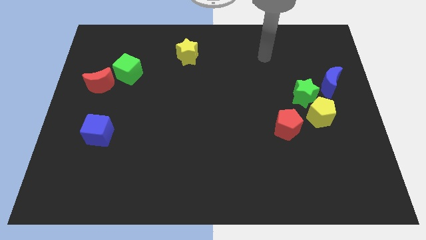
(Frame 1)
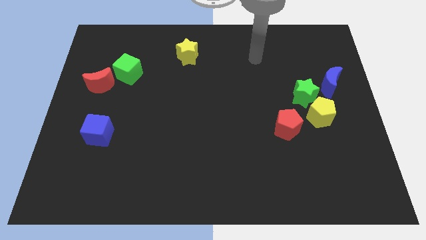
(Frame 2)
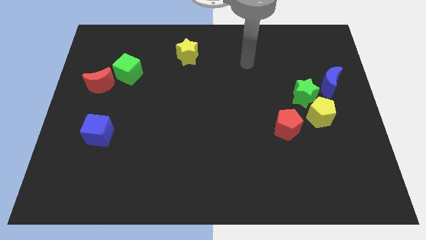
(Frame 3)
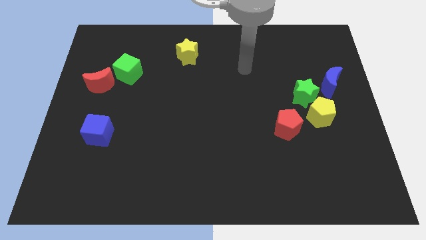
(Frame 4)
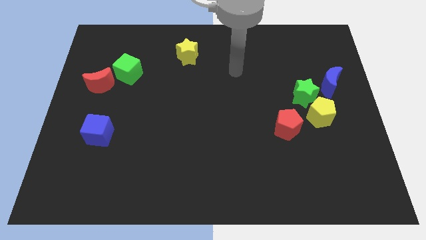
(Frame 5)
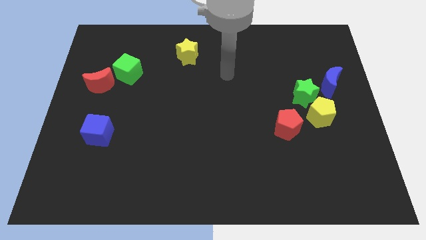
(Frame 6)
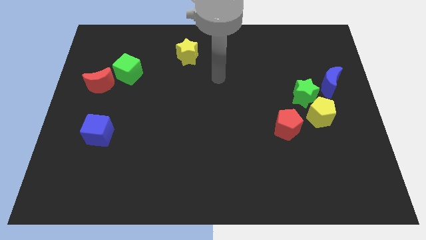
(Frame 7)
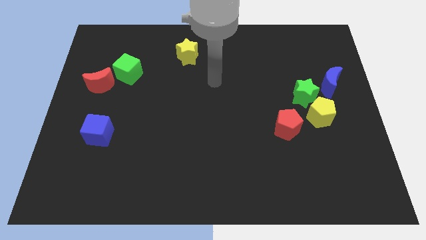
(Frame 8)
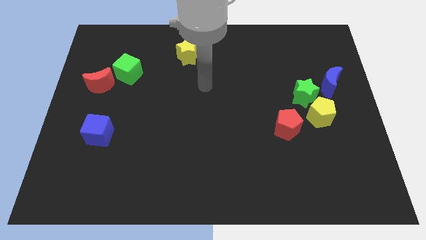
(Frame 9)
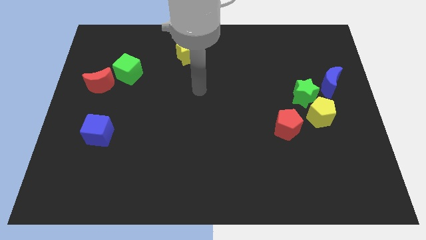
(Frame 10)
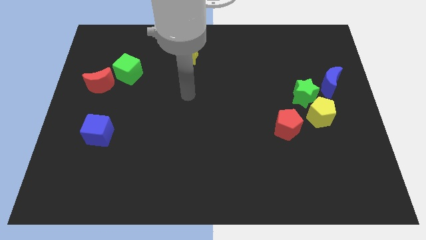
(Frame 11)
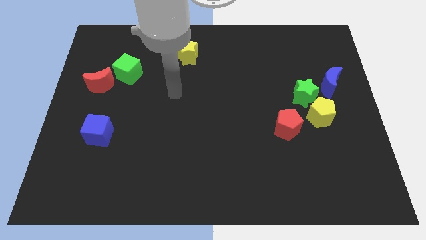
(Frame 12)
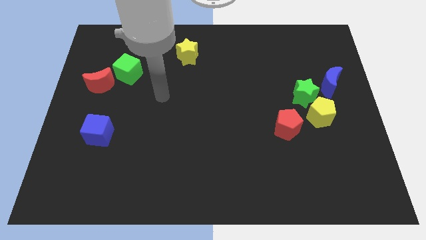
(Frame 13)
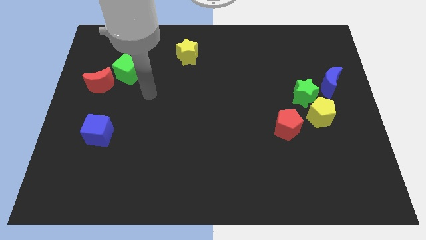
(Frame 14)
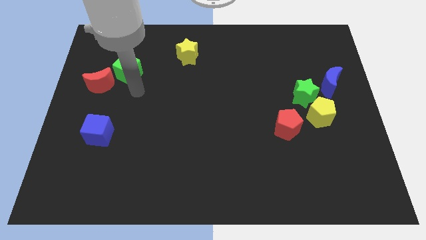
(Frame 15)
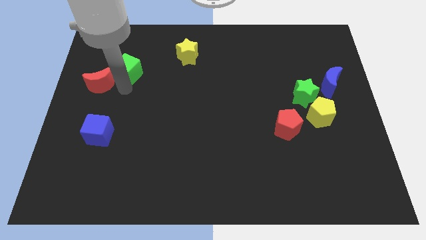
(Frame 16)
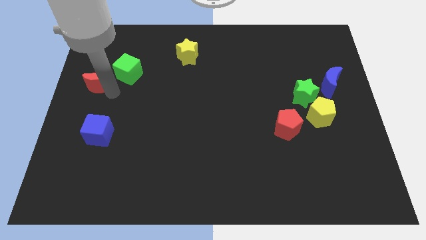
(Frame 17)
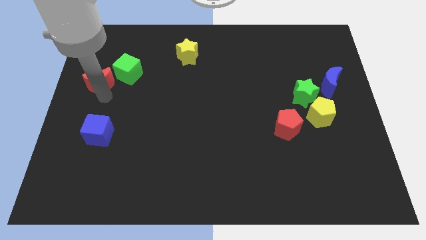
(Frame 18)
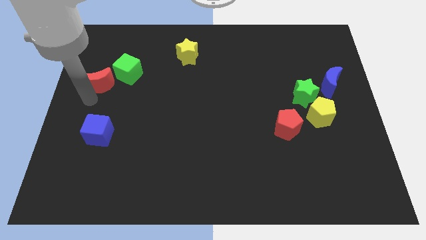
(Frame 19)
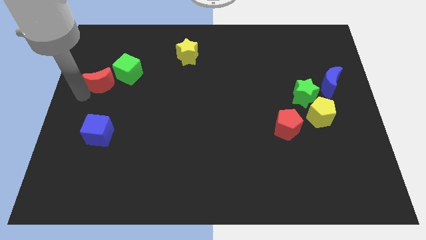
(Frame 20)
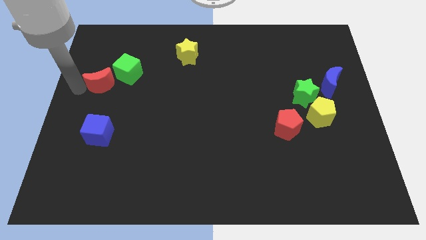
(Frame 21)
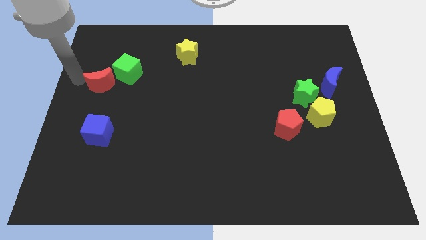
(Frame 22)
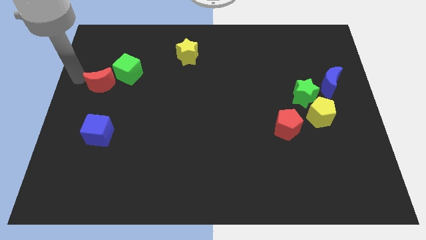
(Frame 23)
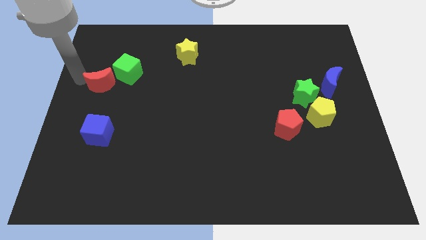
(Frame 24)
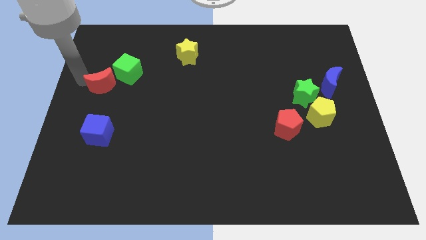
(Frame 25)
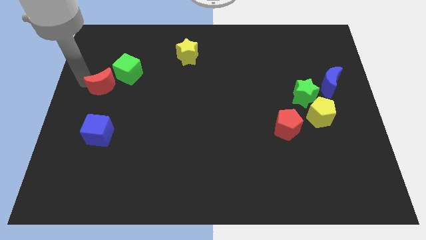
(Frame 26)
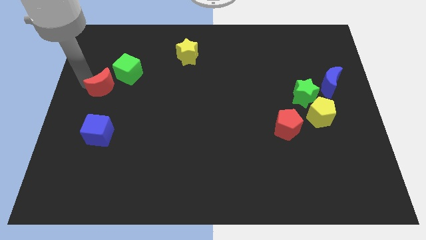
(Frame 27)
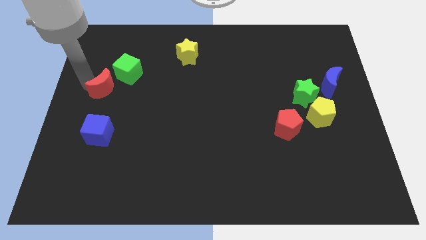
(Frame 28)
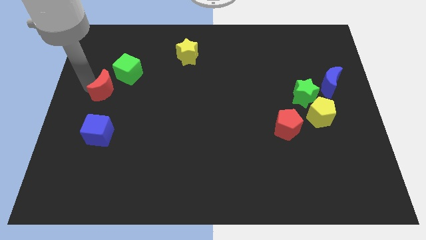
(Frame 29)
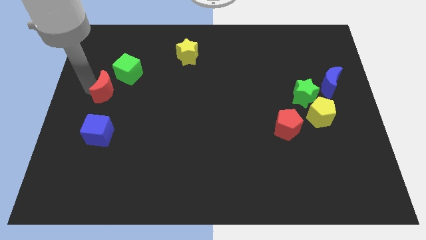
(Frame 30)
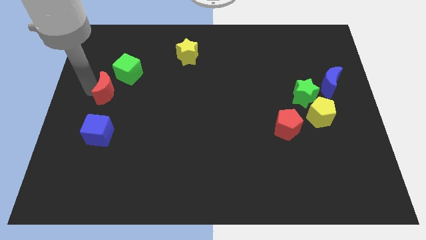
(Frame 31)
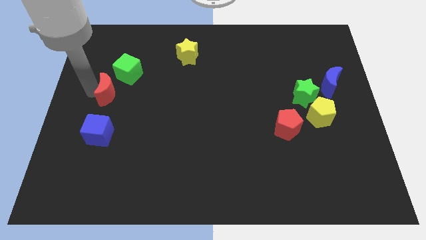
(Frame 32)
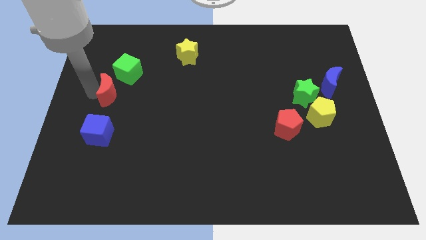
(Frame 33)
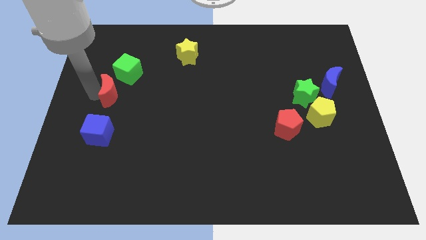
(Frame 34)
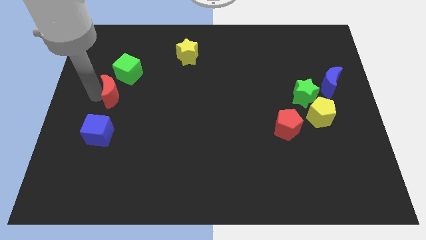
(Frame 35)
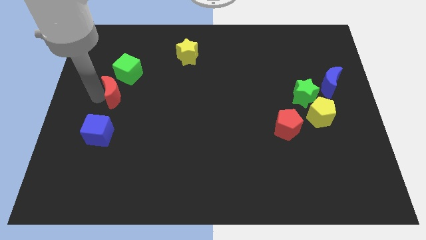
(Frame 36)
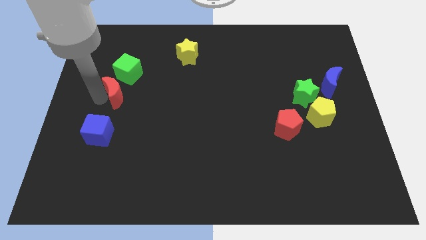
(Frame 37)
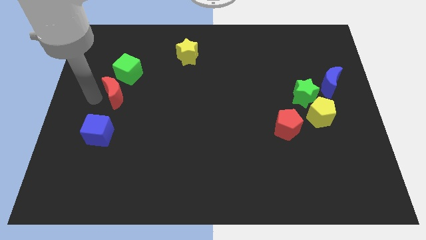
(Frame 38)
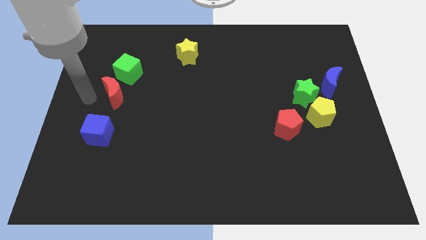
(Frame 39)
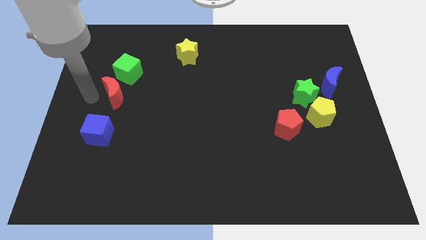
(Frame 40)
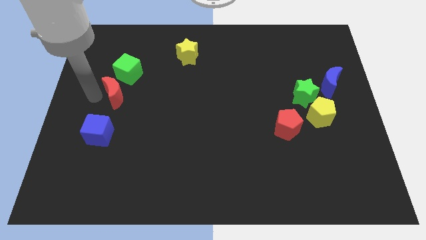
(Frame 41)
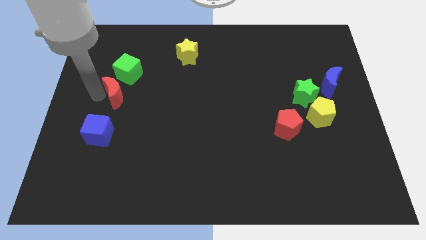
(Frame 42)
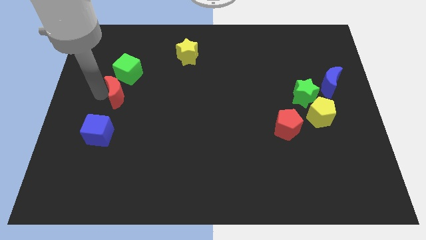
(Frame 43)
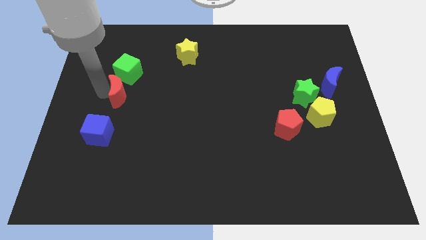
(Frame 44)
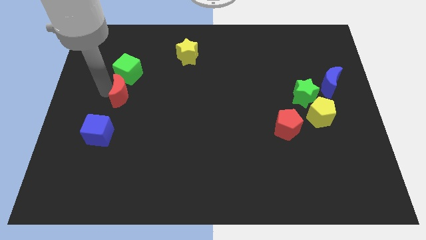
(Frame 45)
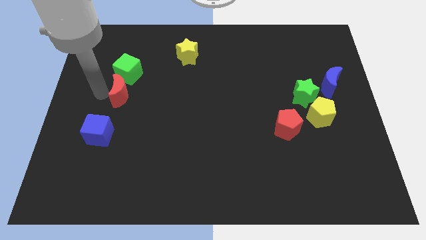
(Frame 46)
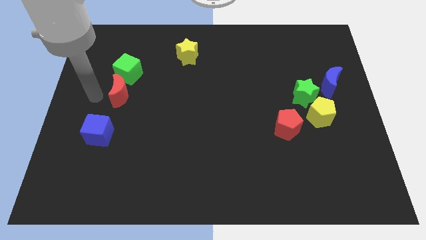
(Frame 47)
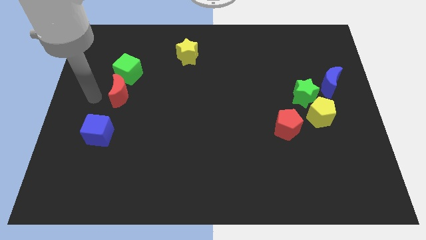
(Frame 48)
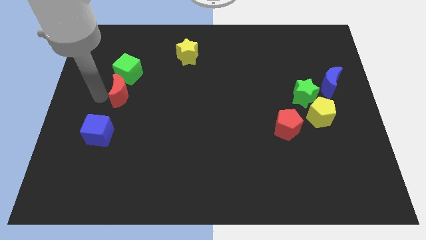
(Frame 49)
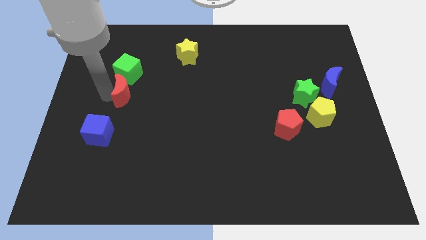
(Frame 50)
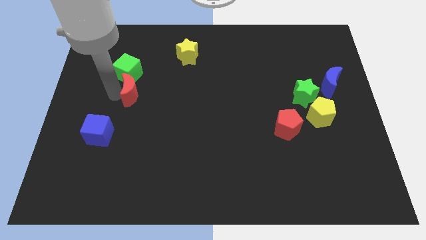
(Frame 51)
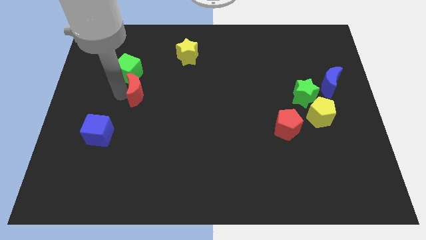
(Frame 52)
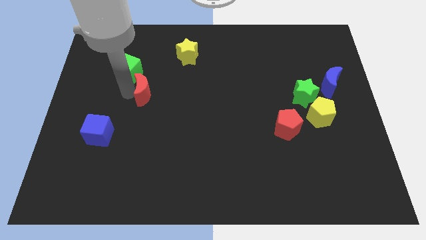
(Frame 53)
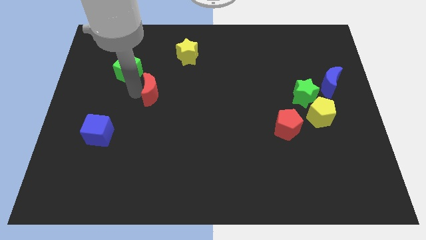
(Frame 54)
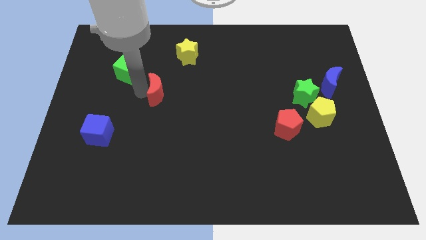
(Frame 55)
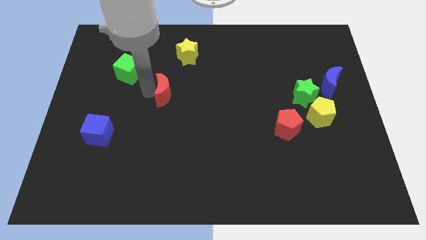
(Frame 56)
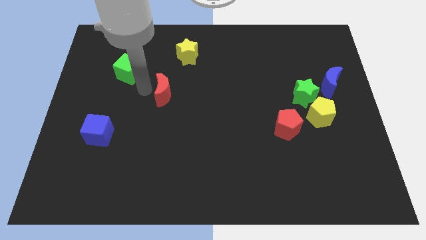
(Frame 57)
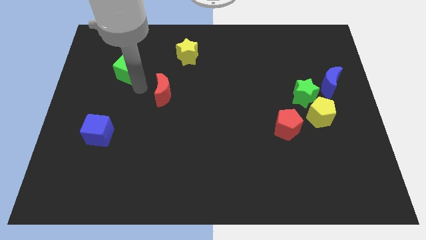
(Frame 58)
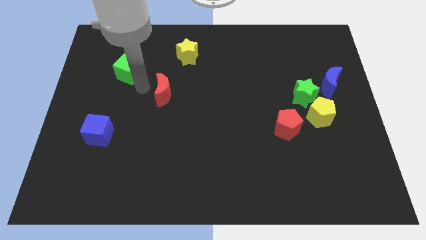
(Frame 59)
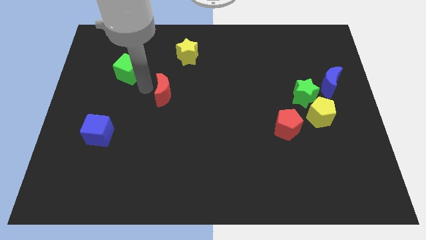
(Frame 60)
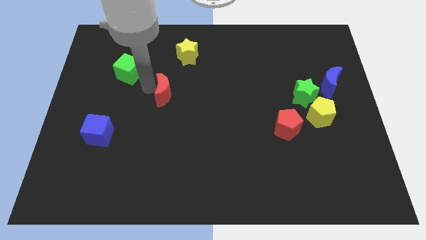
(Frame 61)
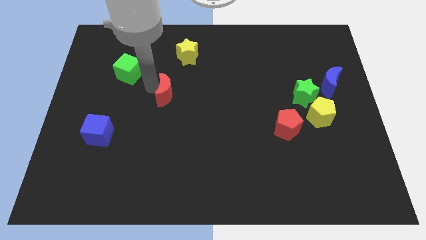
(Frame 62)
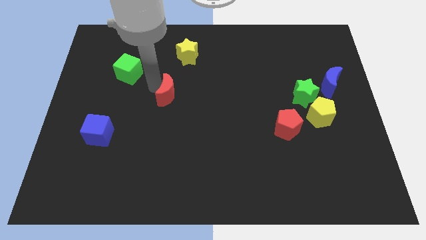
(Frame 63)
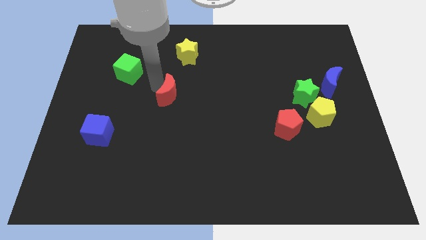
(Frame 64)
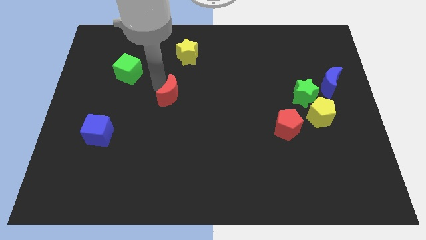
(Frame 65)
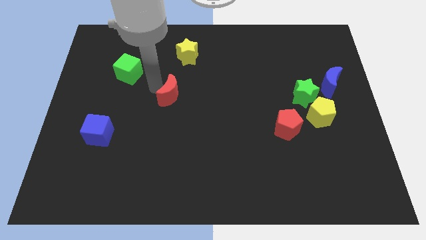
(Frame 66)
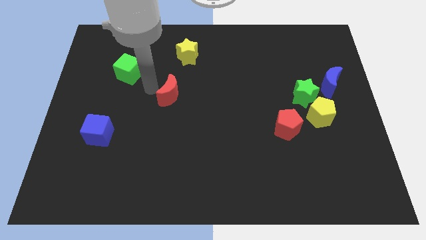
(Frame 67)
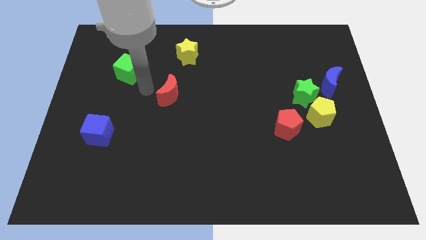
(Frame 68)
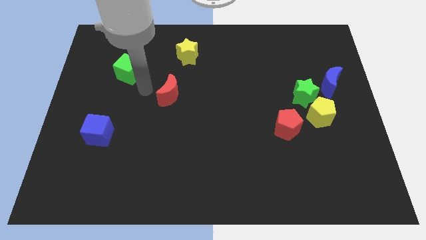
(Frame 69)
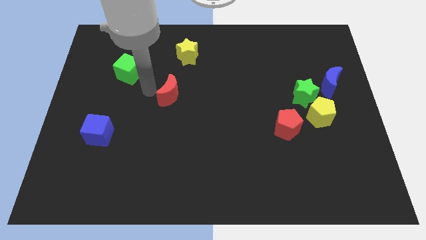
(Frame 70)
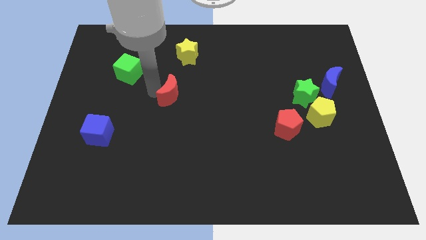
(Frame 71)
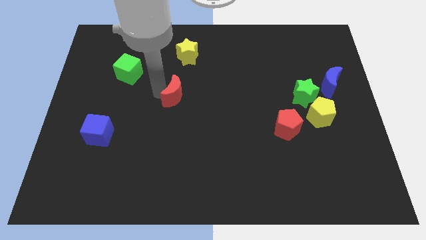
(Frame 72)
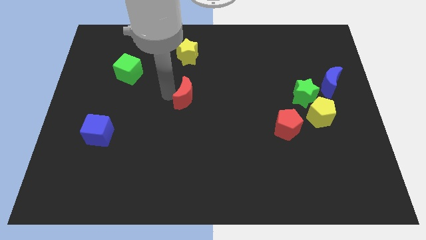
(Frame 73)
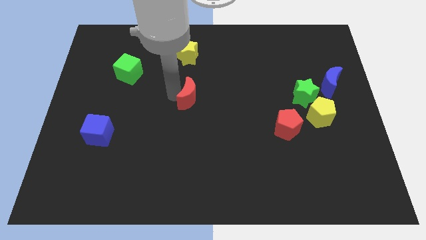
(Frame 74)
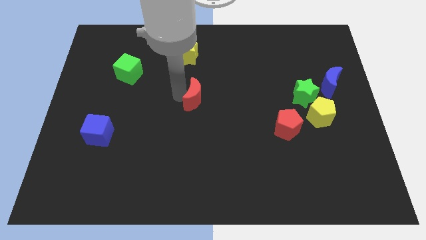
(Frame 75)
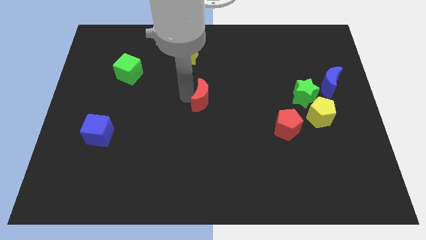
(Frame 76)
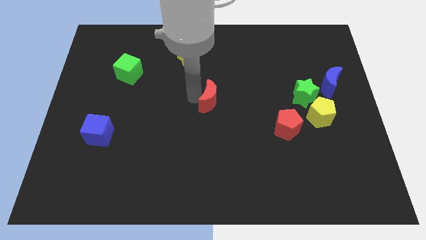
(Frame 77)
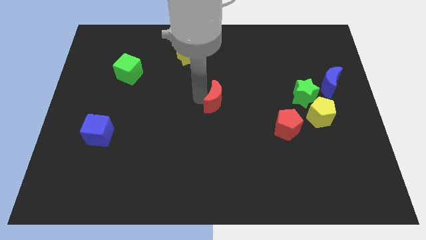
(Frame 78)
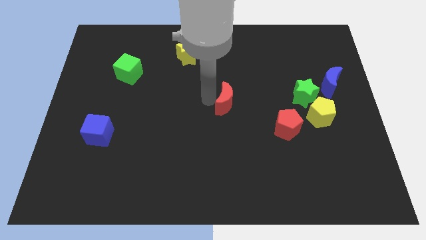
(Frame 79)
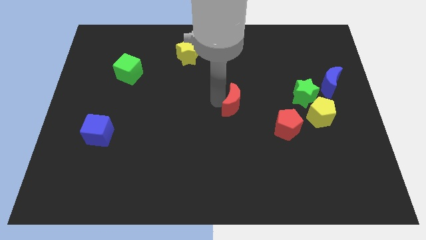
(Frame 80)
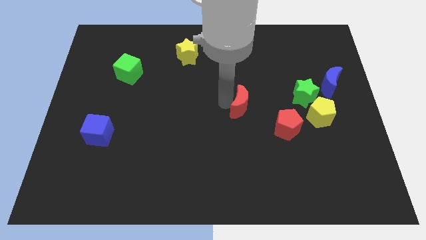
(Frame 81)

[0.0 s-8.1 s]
slide the red moon diagonally up and to the left of the red pentagon
